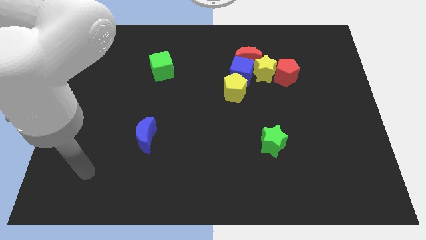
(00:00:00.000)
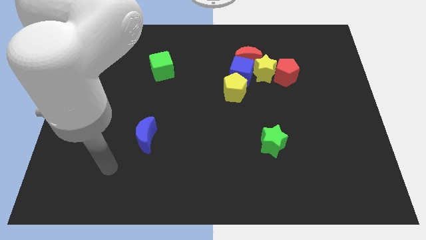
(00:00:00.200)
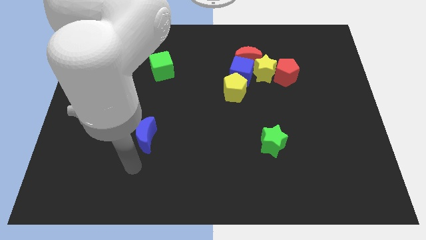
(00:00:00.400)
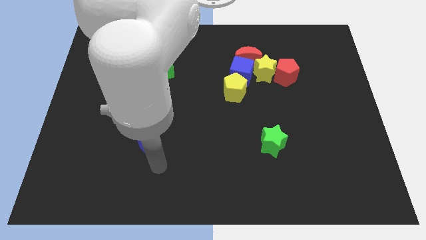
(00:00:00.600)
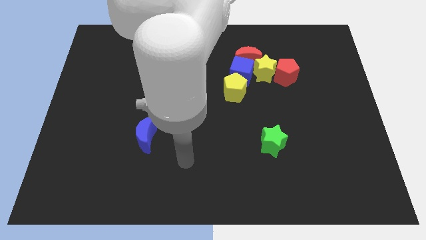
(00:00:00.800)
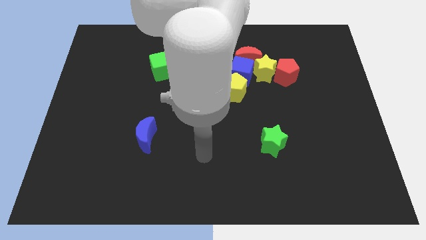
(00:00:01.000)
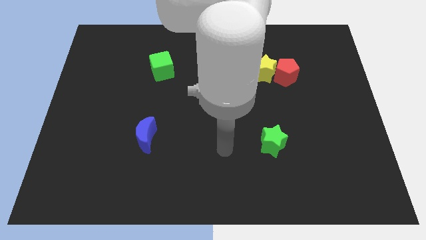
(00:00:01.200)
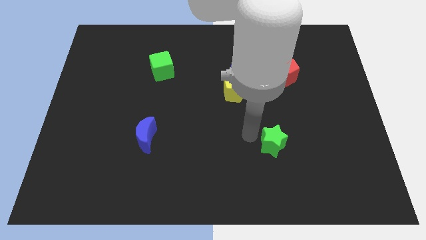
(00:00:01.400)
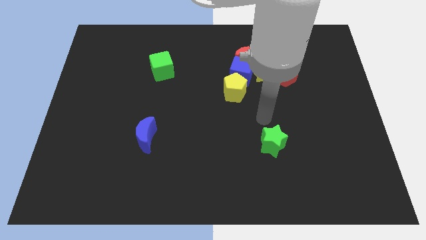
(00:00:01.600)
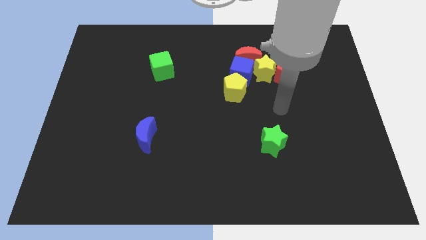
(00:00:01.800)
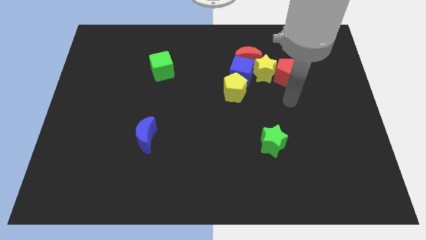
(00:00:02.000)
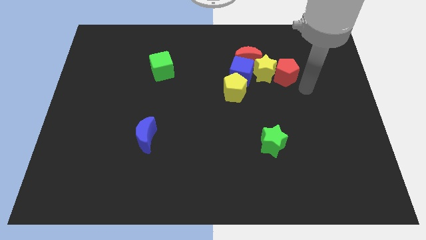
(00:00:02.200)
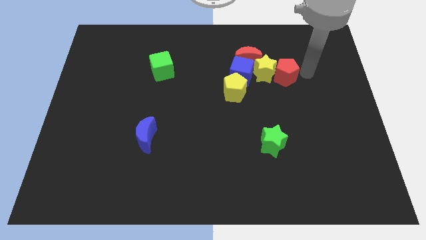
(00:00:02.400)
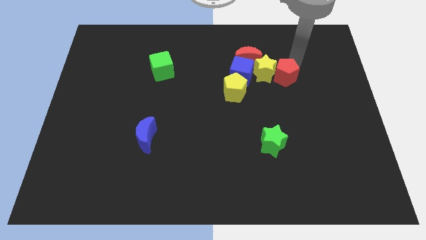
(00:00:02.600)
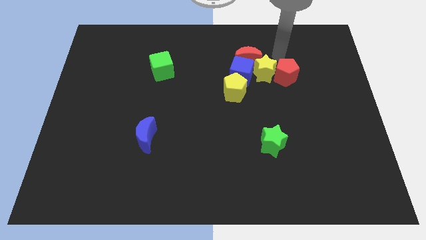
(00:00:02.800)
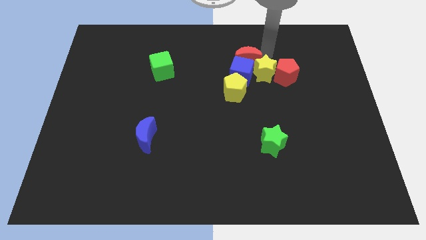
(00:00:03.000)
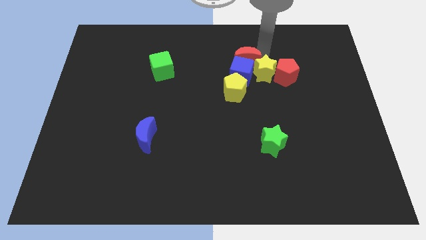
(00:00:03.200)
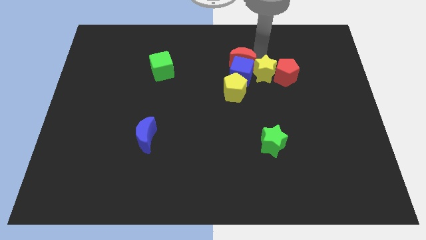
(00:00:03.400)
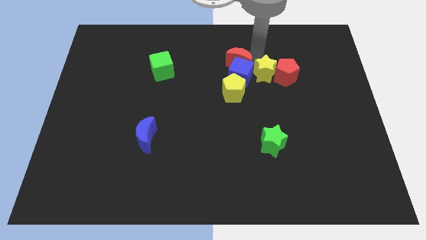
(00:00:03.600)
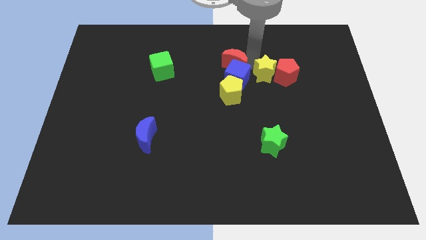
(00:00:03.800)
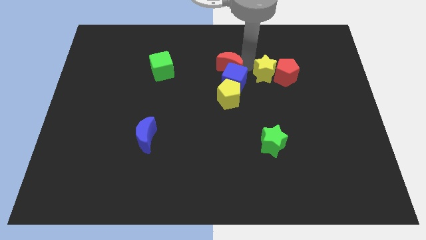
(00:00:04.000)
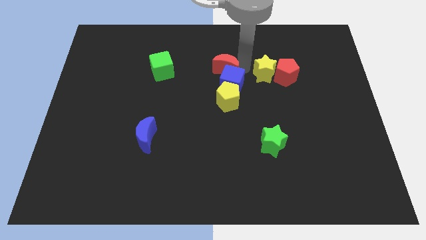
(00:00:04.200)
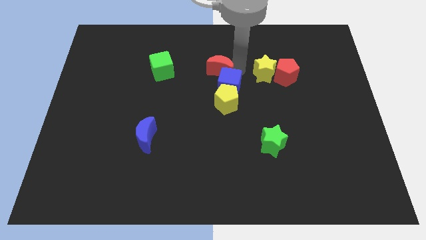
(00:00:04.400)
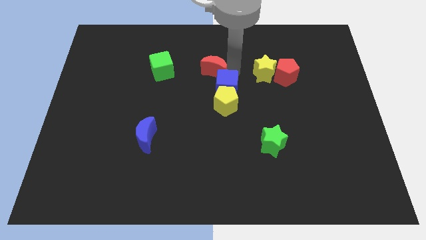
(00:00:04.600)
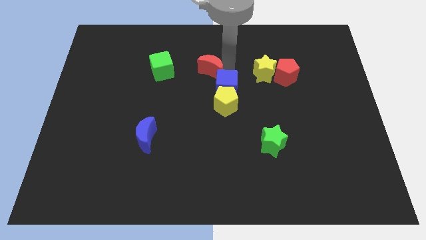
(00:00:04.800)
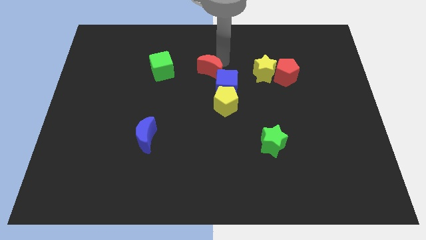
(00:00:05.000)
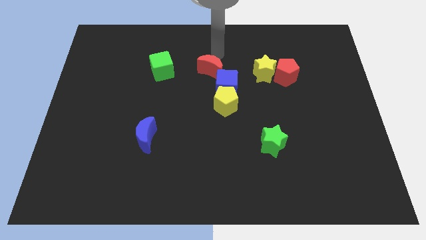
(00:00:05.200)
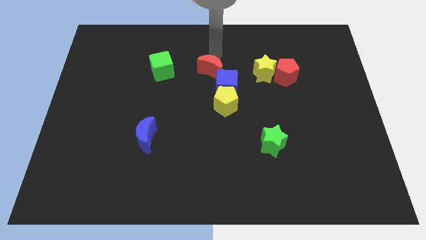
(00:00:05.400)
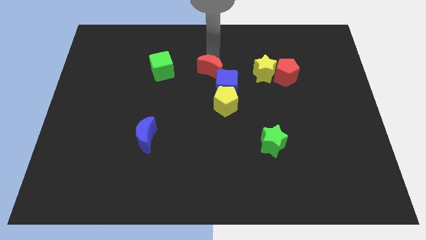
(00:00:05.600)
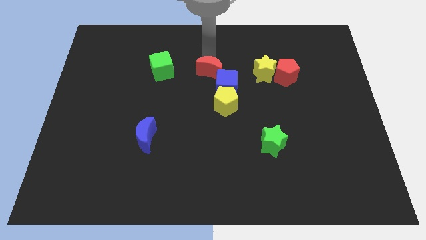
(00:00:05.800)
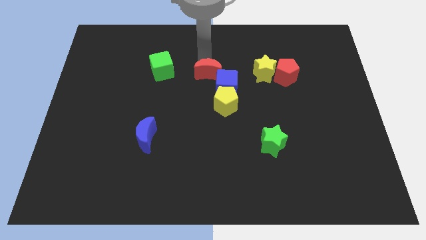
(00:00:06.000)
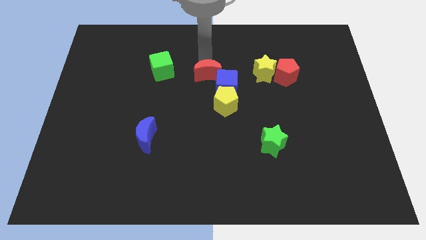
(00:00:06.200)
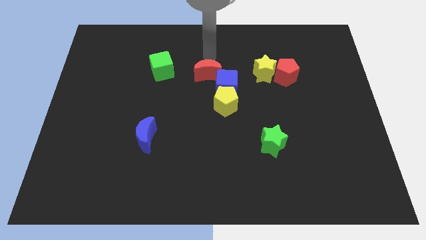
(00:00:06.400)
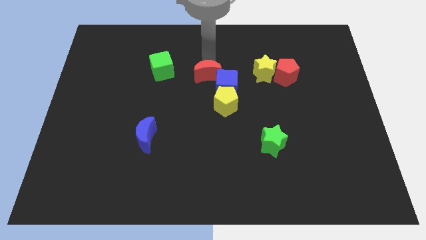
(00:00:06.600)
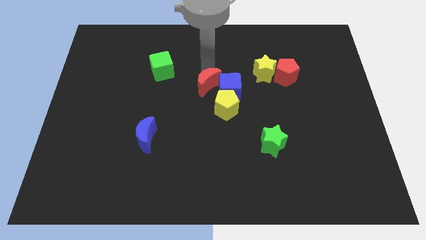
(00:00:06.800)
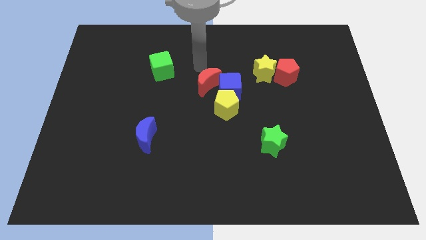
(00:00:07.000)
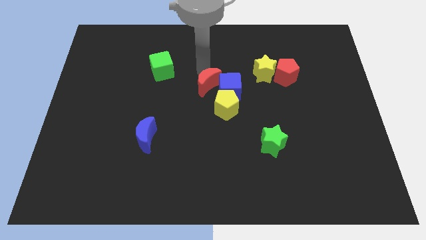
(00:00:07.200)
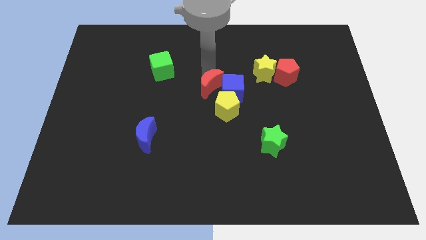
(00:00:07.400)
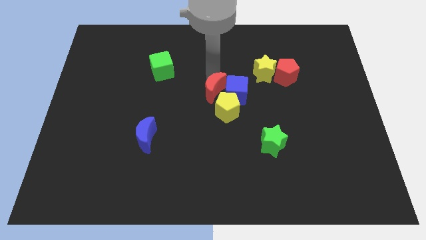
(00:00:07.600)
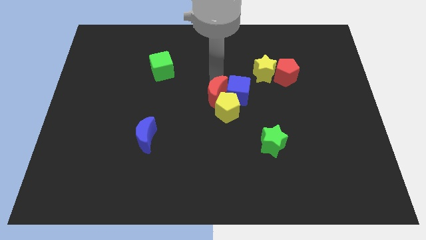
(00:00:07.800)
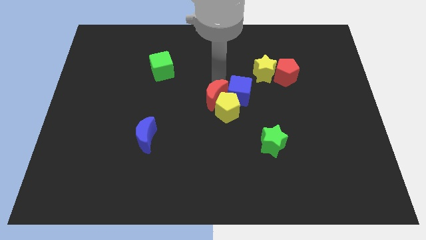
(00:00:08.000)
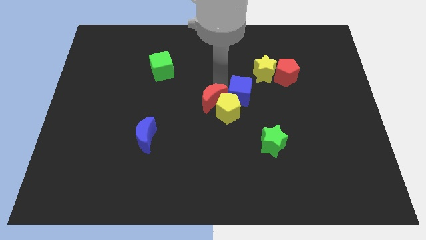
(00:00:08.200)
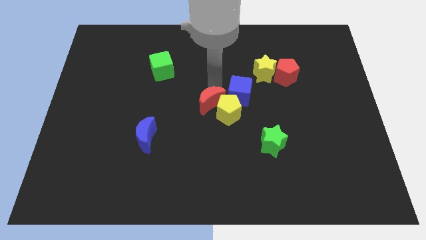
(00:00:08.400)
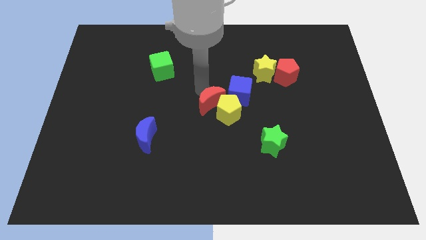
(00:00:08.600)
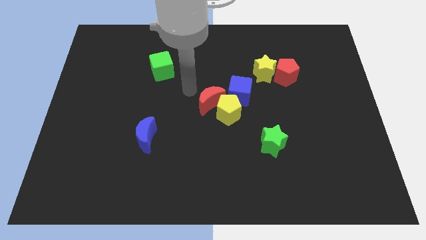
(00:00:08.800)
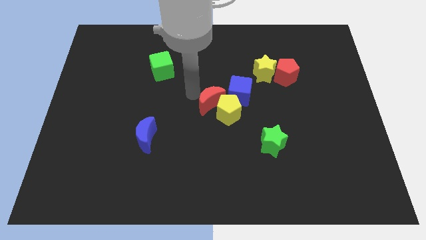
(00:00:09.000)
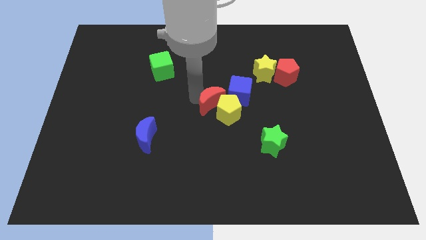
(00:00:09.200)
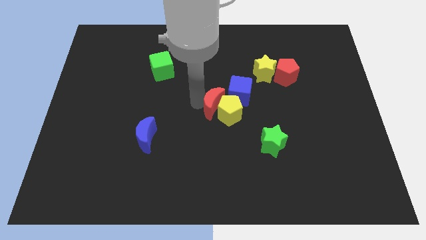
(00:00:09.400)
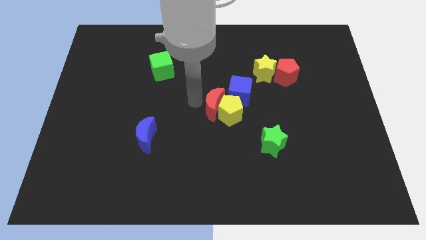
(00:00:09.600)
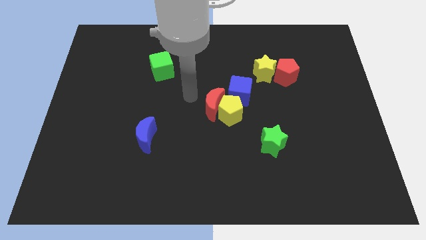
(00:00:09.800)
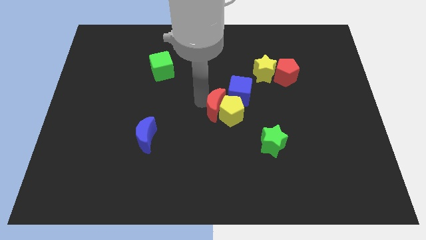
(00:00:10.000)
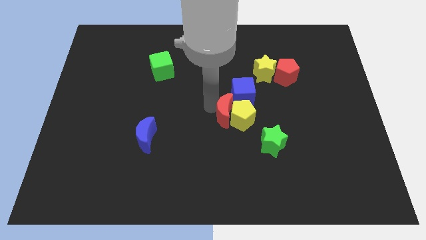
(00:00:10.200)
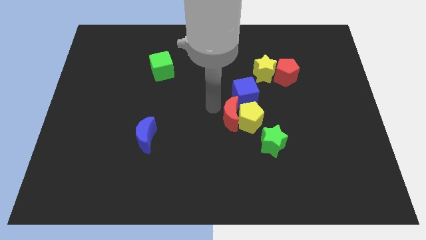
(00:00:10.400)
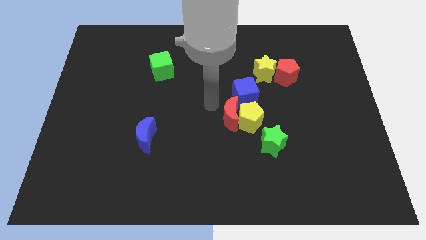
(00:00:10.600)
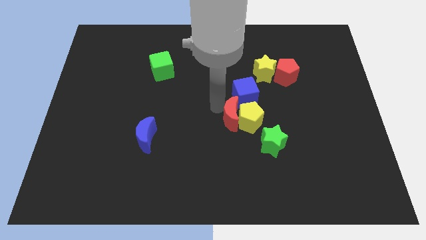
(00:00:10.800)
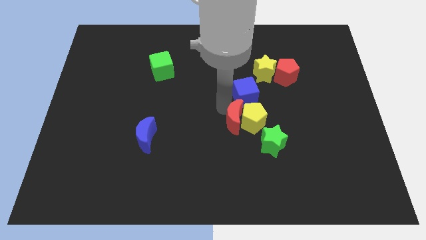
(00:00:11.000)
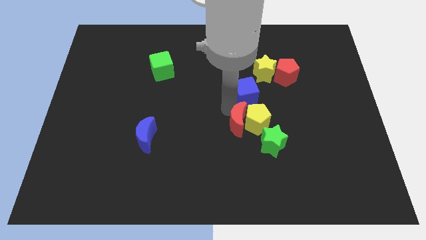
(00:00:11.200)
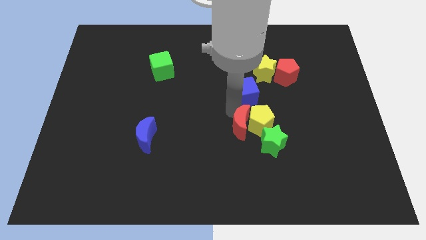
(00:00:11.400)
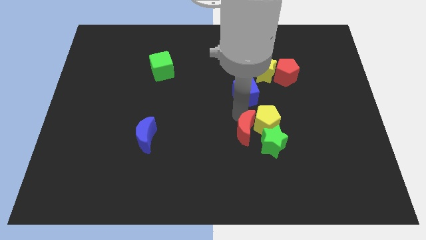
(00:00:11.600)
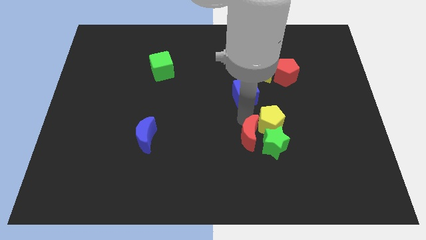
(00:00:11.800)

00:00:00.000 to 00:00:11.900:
move the red moon to the green star
